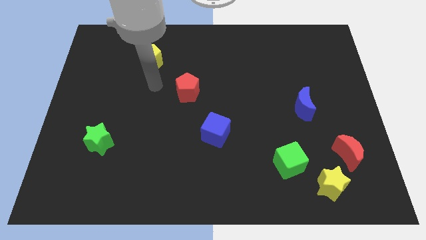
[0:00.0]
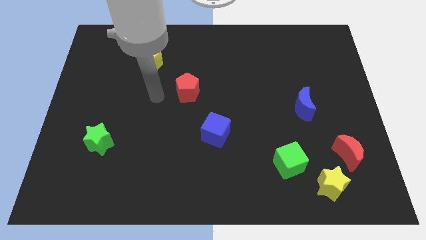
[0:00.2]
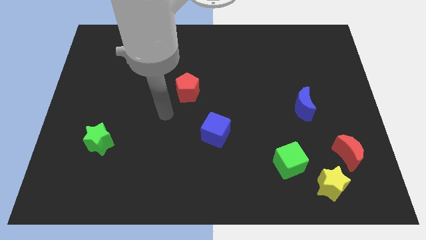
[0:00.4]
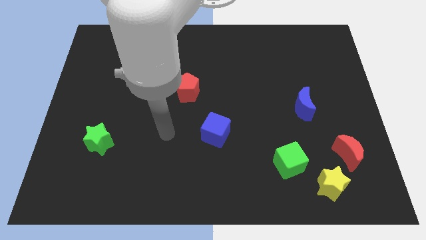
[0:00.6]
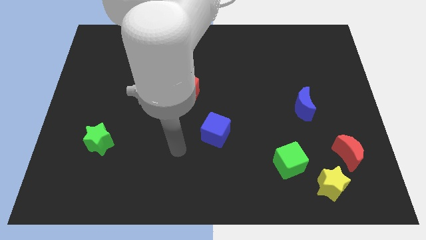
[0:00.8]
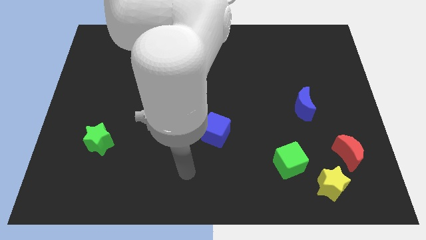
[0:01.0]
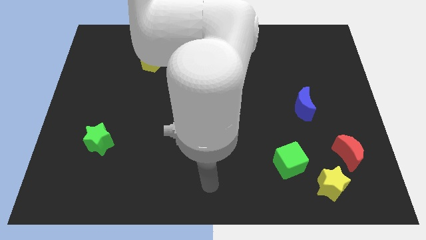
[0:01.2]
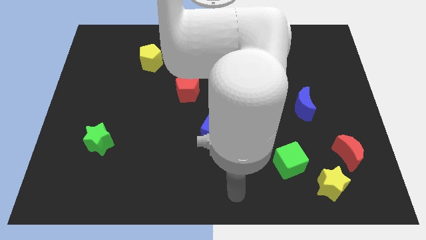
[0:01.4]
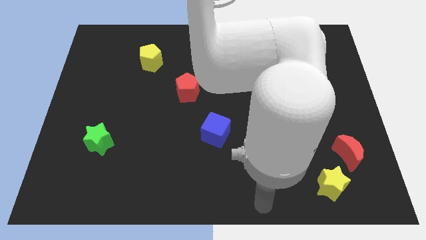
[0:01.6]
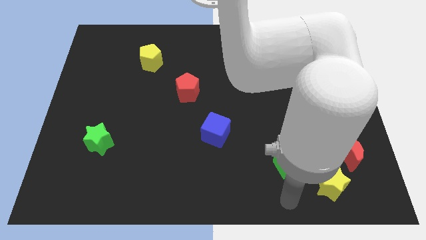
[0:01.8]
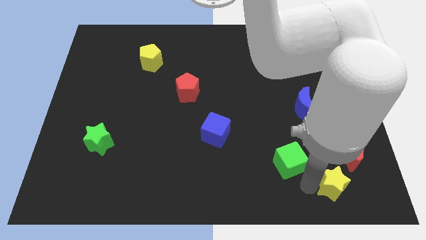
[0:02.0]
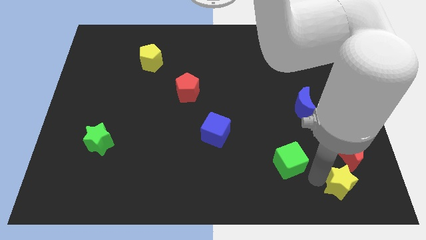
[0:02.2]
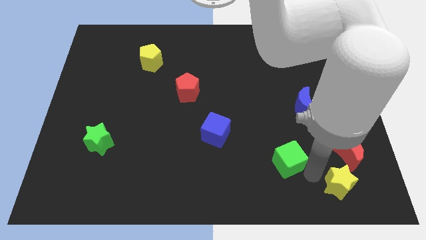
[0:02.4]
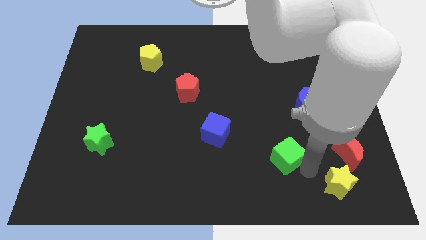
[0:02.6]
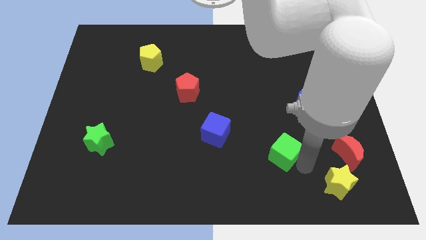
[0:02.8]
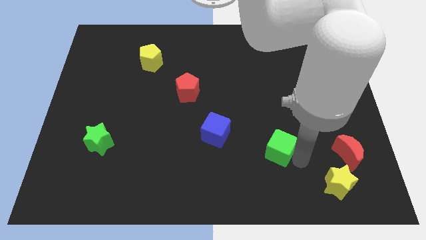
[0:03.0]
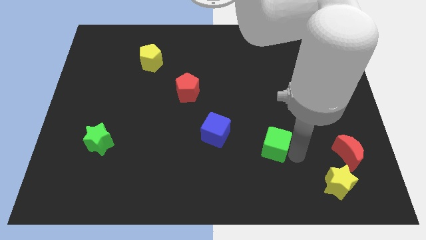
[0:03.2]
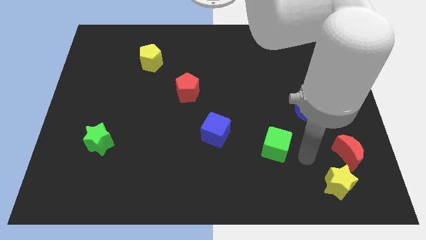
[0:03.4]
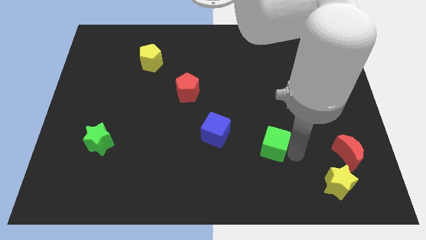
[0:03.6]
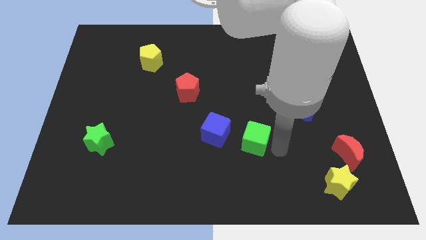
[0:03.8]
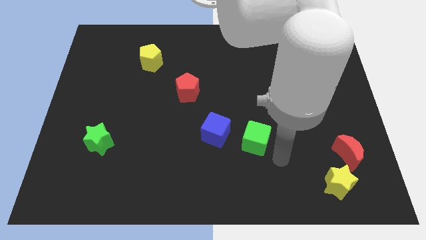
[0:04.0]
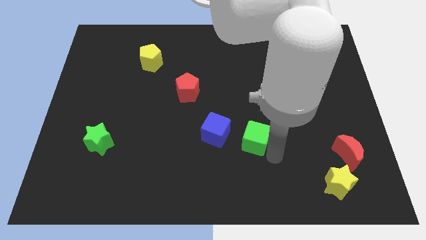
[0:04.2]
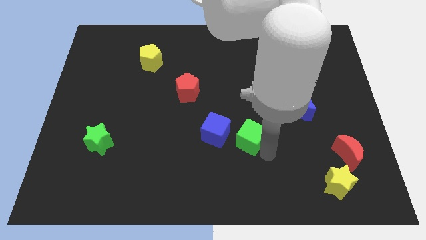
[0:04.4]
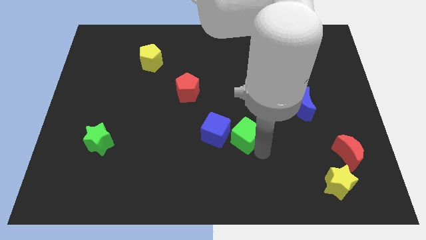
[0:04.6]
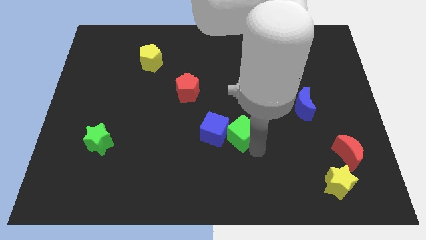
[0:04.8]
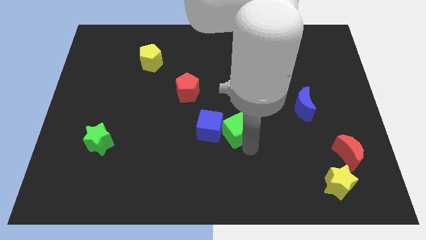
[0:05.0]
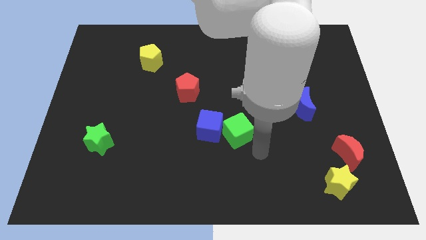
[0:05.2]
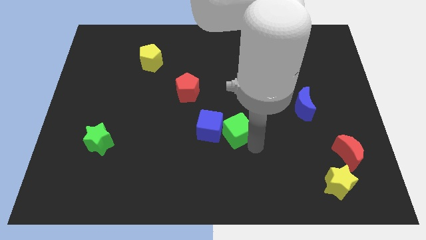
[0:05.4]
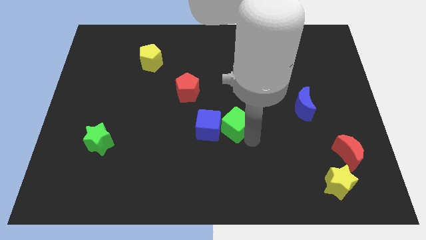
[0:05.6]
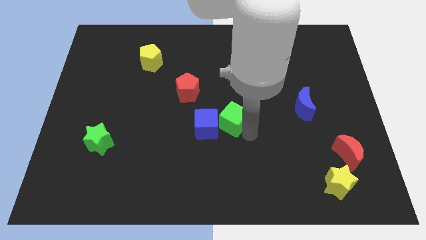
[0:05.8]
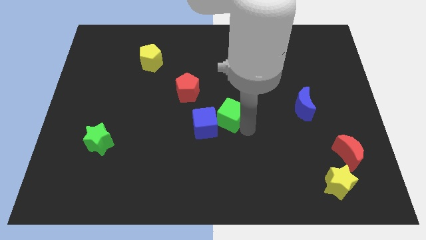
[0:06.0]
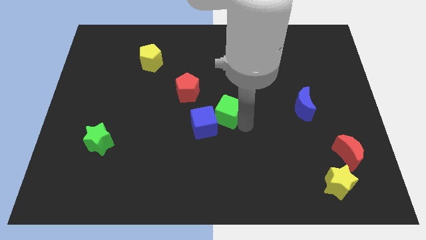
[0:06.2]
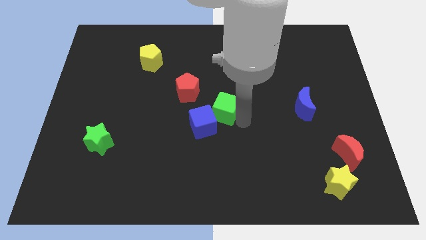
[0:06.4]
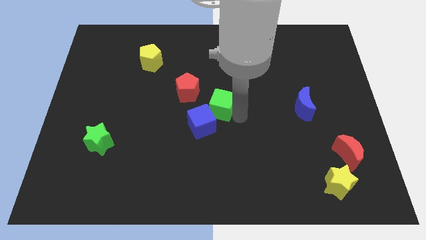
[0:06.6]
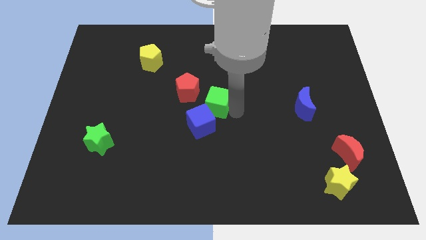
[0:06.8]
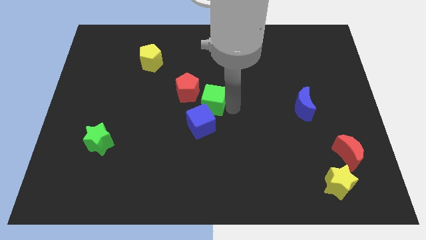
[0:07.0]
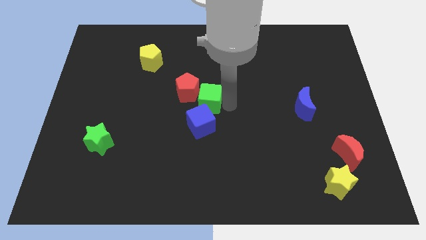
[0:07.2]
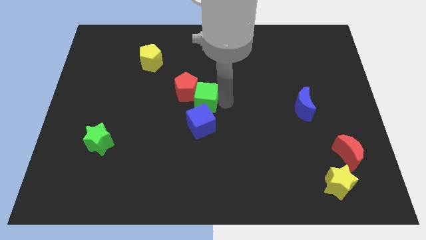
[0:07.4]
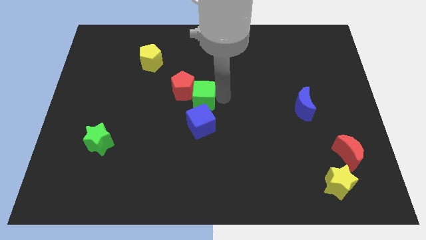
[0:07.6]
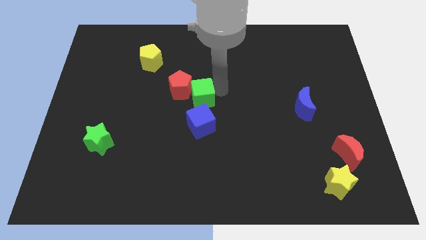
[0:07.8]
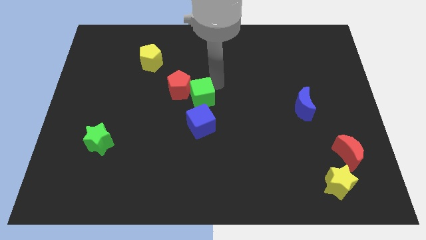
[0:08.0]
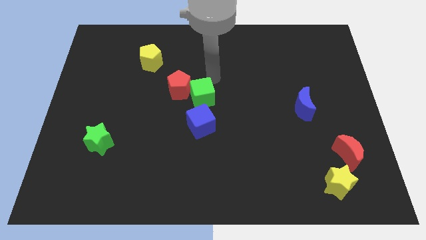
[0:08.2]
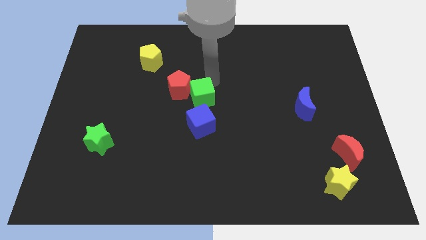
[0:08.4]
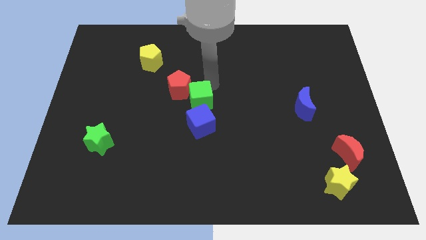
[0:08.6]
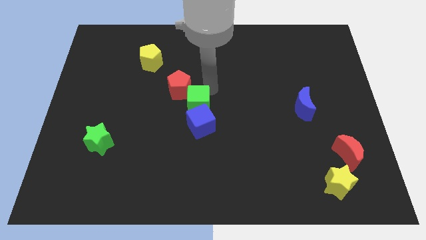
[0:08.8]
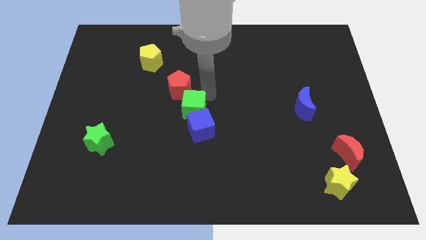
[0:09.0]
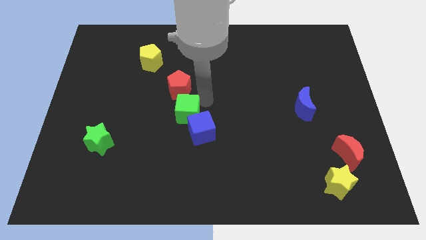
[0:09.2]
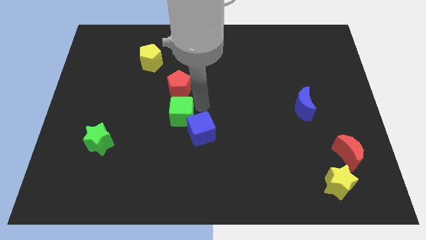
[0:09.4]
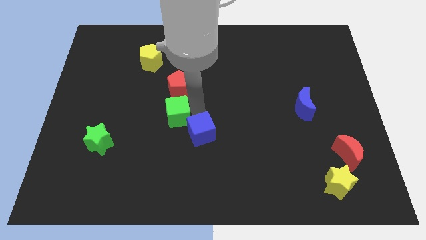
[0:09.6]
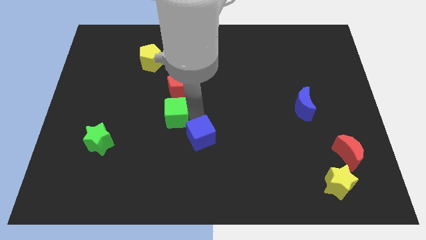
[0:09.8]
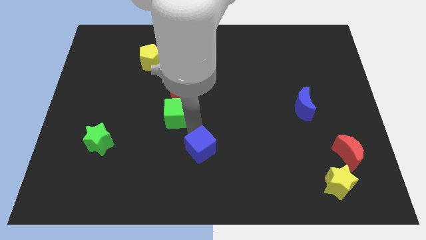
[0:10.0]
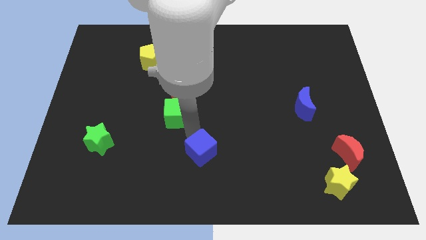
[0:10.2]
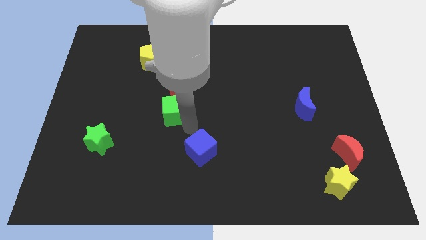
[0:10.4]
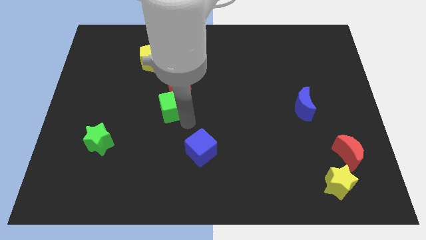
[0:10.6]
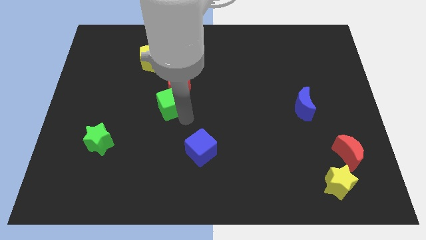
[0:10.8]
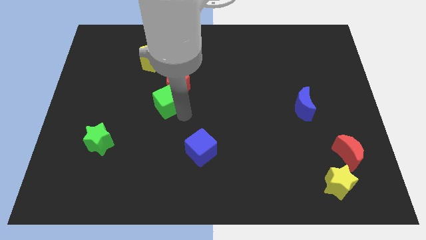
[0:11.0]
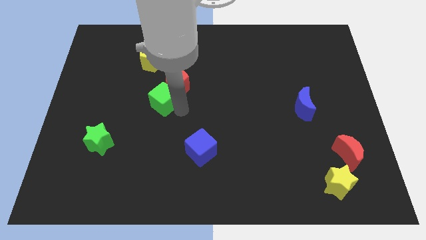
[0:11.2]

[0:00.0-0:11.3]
move the green cube below the yellow pentagon

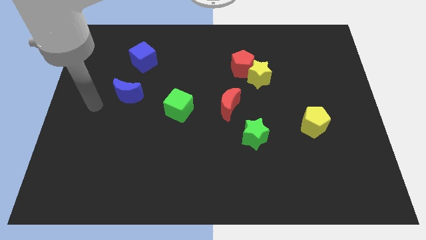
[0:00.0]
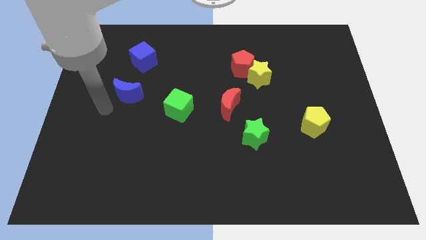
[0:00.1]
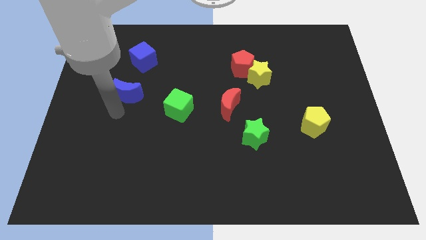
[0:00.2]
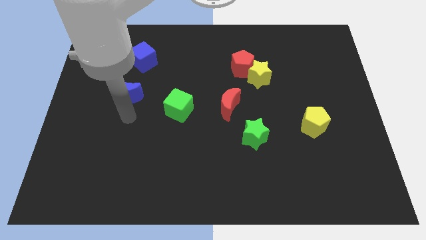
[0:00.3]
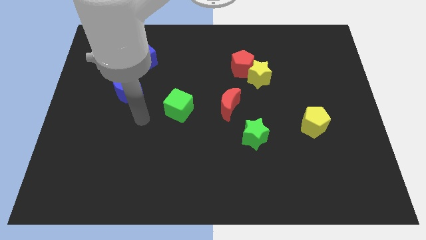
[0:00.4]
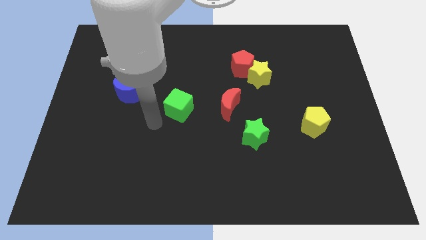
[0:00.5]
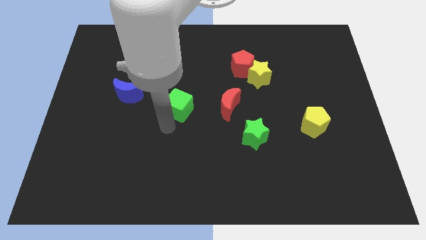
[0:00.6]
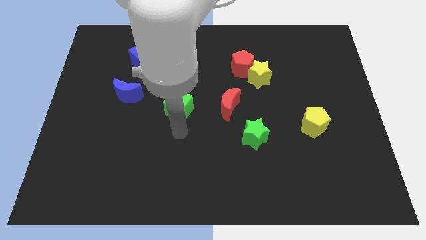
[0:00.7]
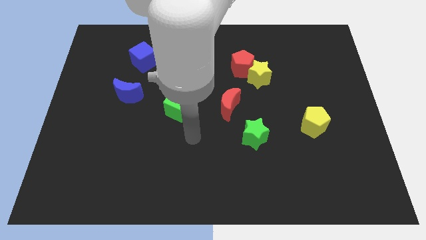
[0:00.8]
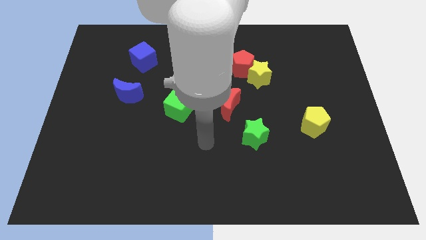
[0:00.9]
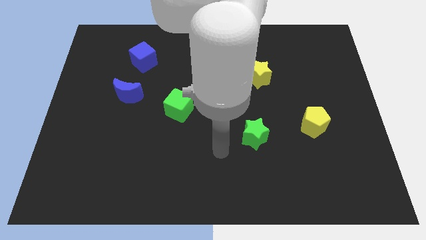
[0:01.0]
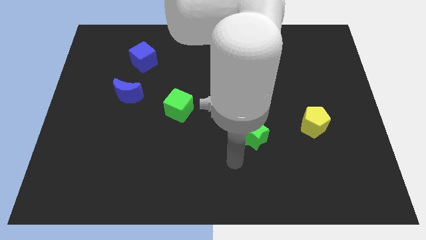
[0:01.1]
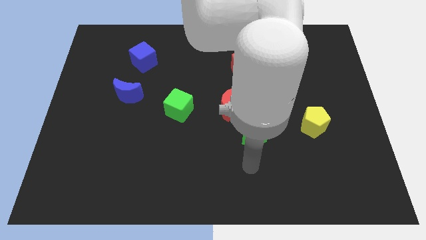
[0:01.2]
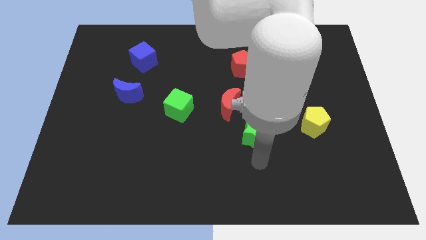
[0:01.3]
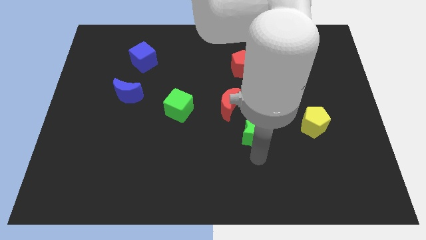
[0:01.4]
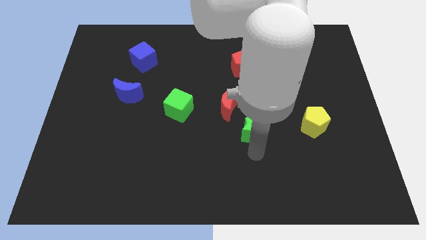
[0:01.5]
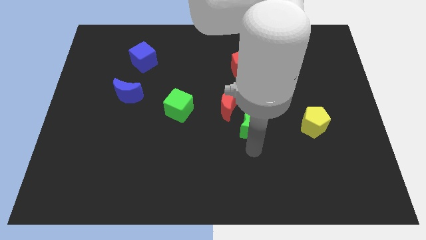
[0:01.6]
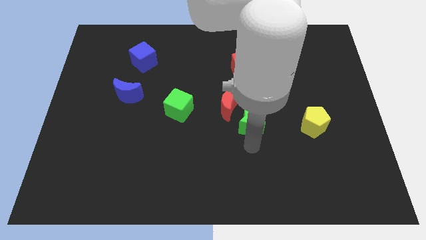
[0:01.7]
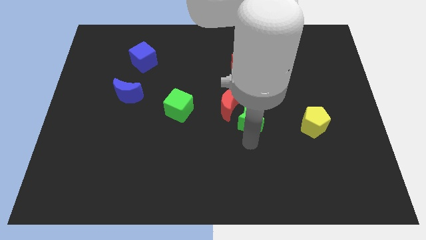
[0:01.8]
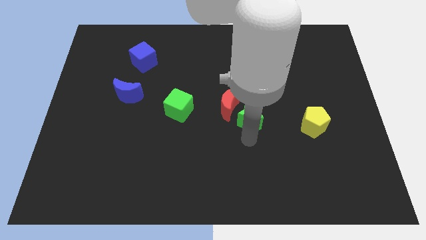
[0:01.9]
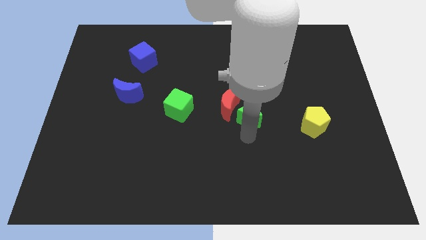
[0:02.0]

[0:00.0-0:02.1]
put the green star below the red pentagon

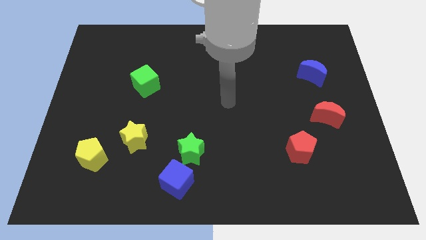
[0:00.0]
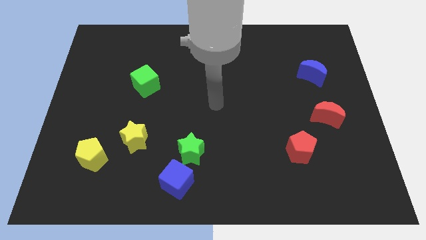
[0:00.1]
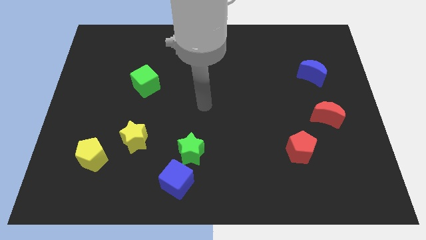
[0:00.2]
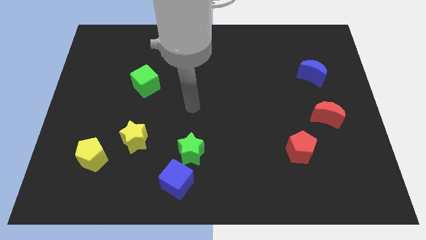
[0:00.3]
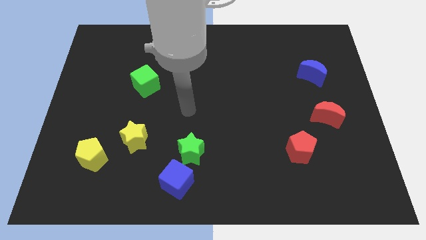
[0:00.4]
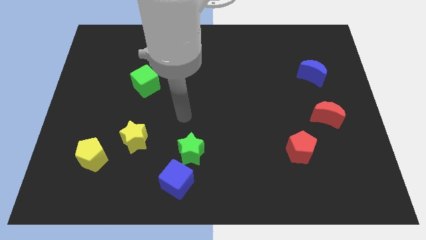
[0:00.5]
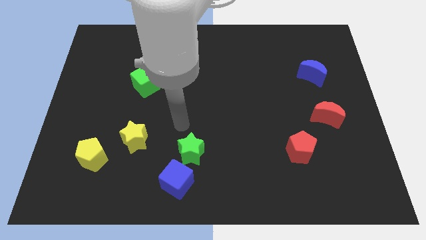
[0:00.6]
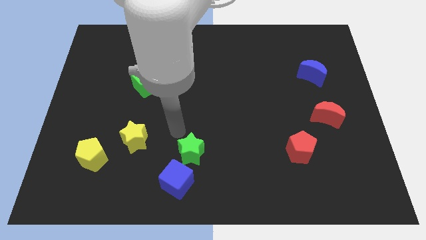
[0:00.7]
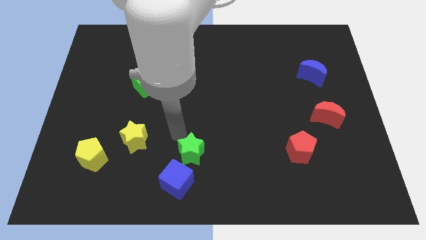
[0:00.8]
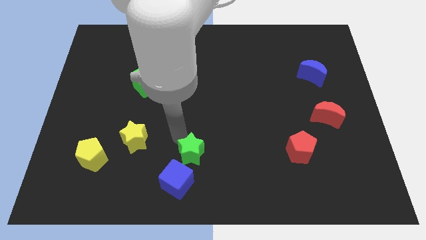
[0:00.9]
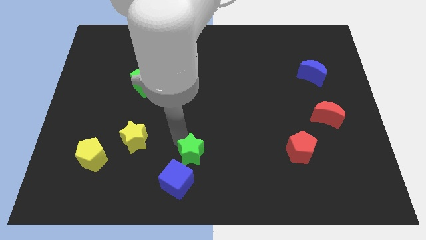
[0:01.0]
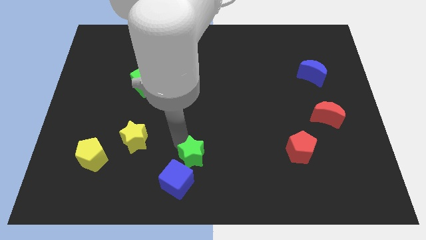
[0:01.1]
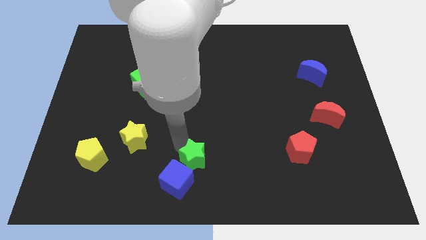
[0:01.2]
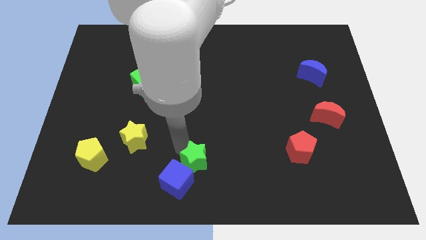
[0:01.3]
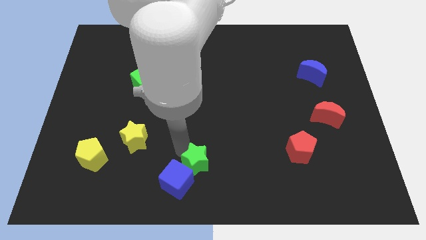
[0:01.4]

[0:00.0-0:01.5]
push the green star to the right of the blue cube
